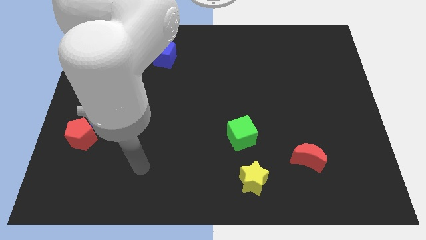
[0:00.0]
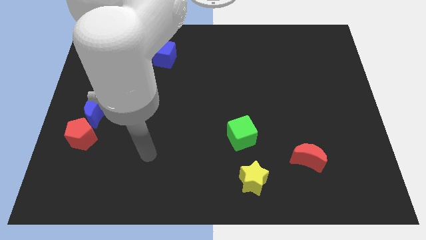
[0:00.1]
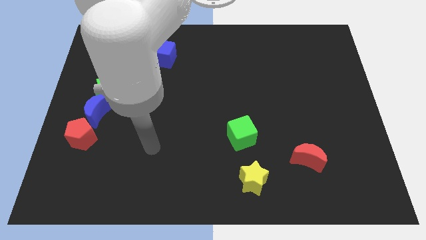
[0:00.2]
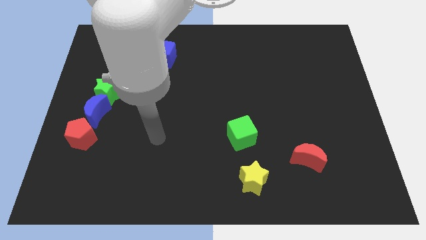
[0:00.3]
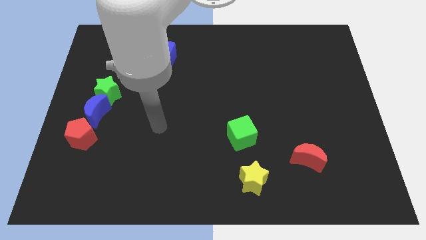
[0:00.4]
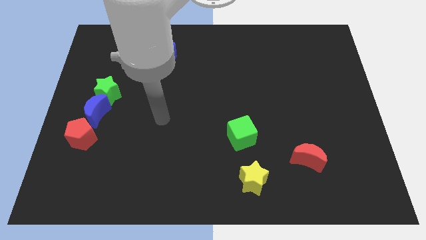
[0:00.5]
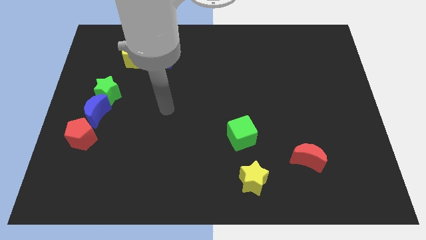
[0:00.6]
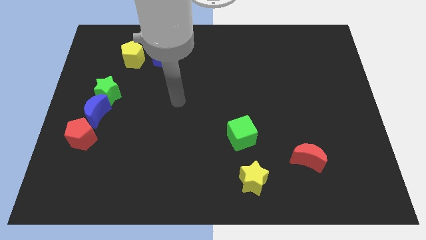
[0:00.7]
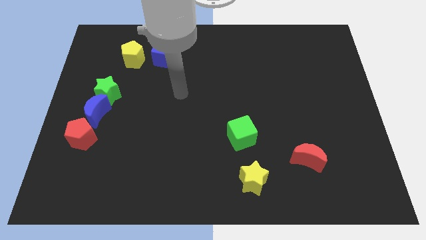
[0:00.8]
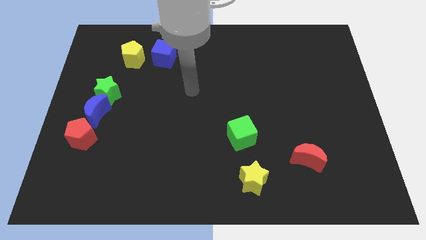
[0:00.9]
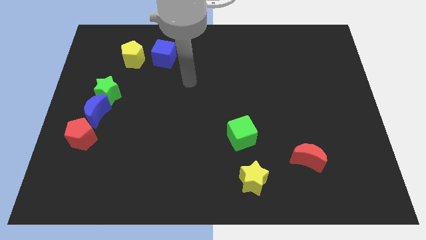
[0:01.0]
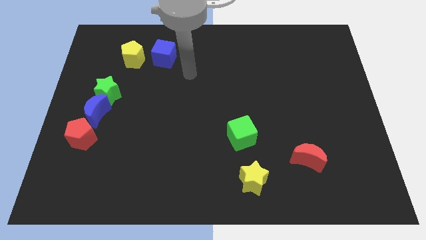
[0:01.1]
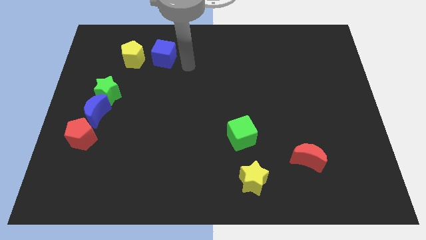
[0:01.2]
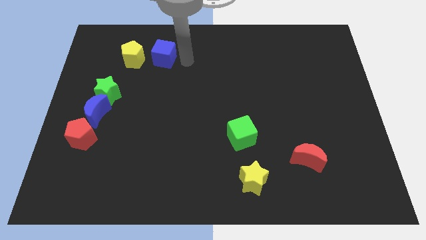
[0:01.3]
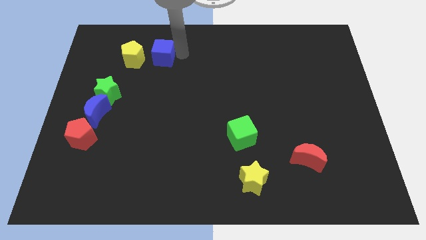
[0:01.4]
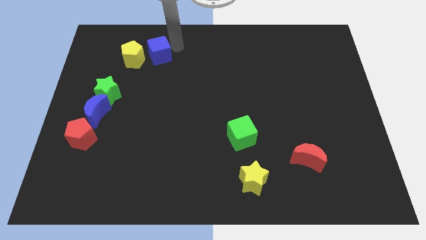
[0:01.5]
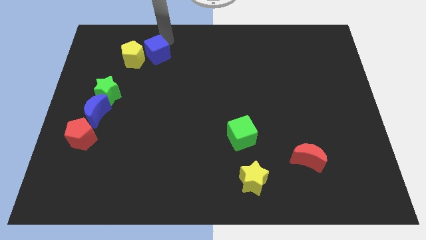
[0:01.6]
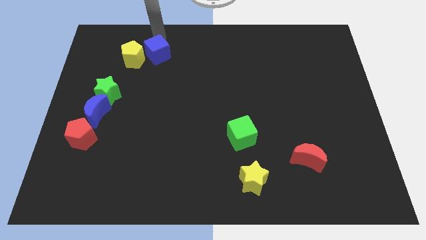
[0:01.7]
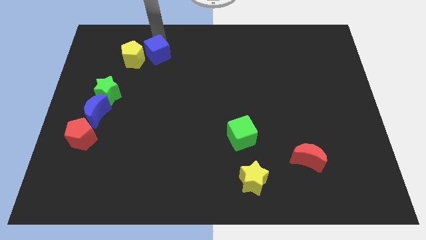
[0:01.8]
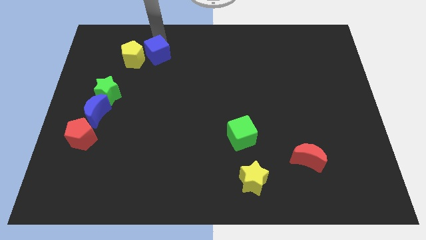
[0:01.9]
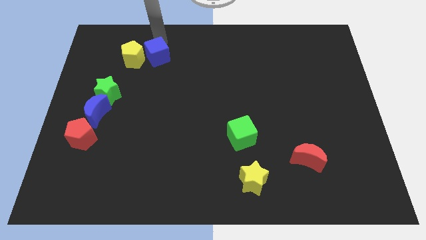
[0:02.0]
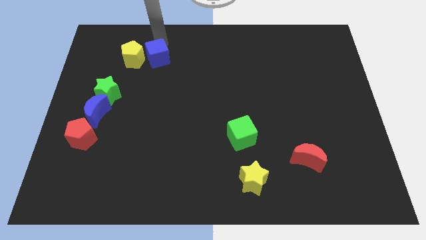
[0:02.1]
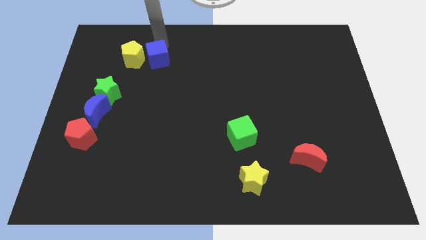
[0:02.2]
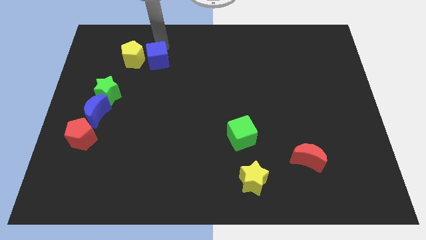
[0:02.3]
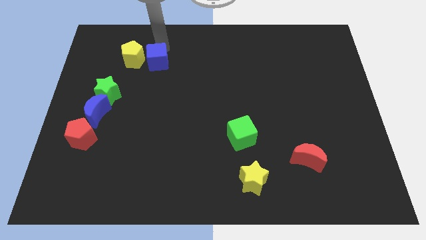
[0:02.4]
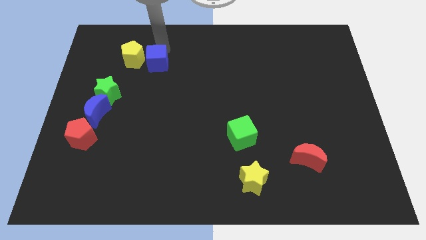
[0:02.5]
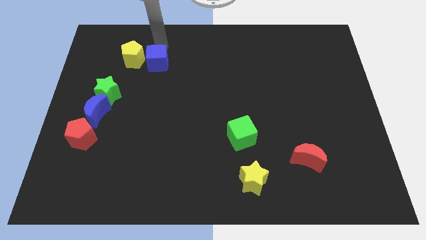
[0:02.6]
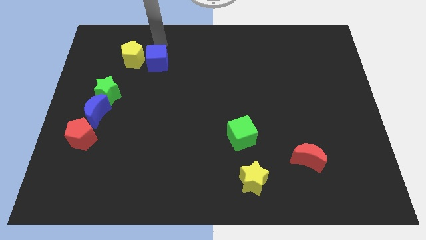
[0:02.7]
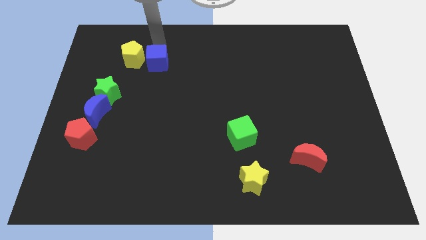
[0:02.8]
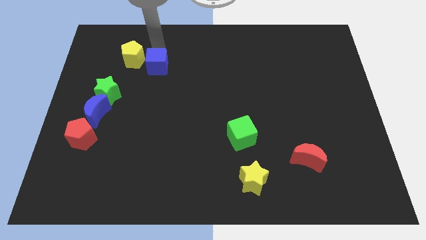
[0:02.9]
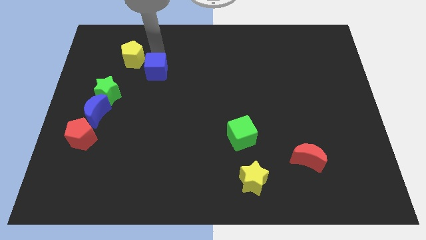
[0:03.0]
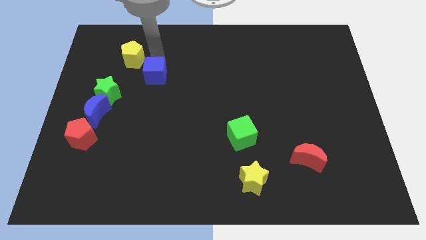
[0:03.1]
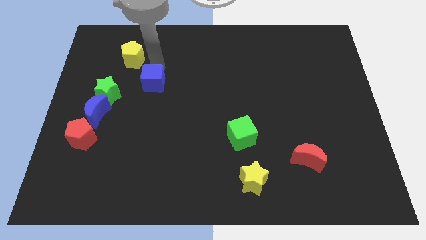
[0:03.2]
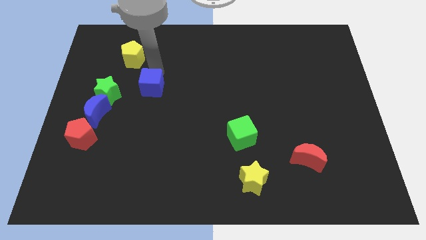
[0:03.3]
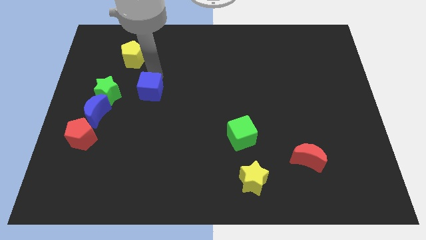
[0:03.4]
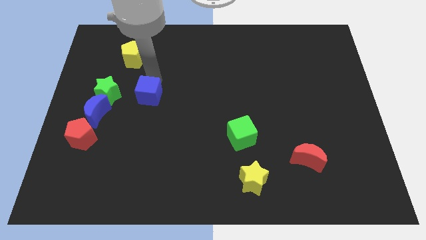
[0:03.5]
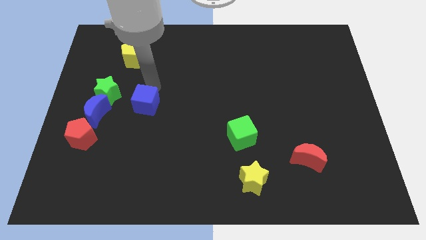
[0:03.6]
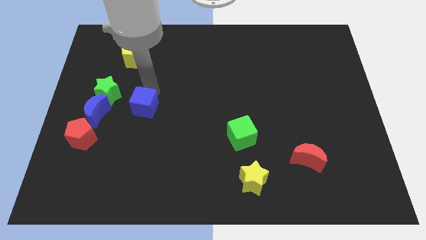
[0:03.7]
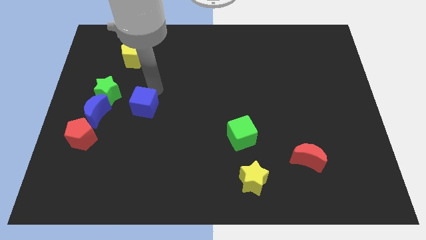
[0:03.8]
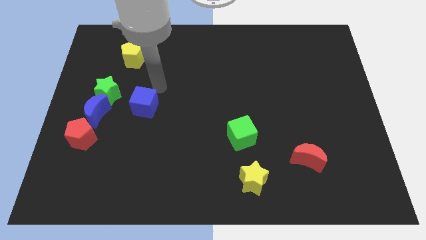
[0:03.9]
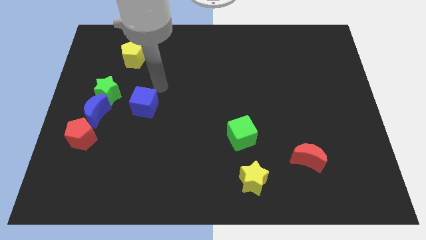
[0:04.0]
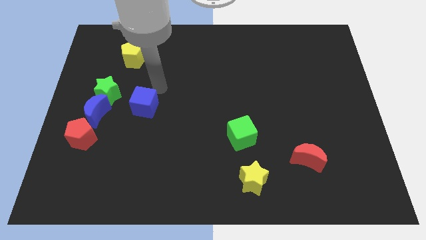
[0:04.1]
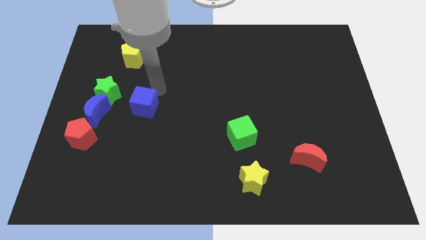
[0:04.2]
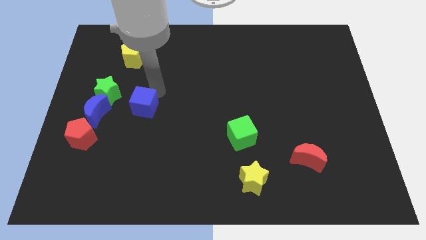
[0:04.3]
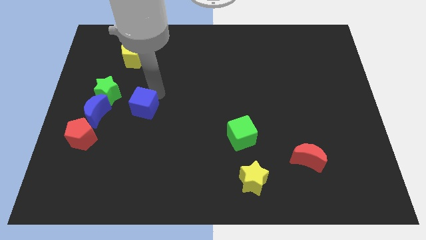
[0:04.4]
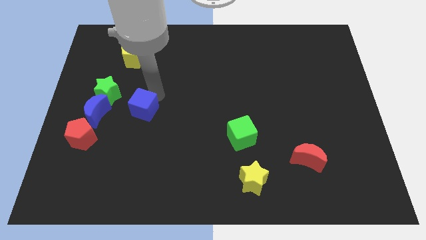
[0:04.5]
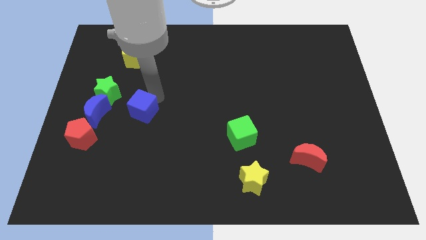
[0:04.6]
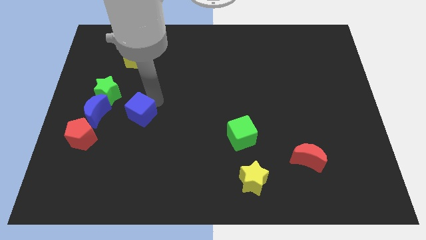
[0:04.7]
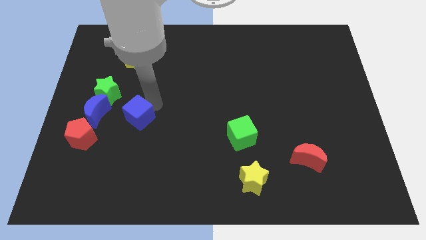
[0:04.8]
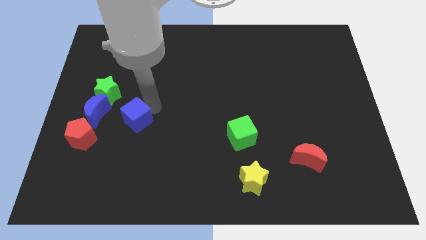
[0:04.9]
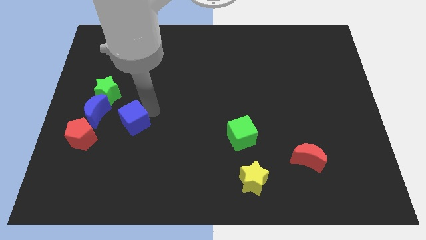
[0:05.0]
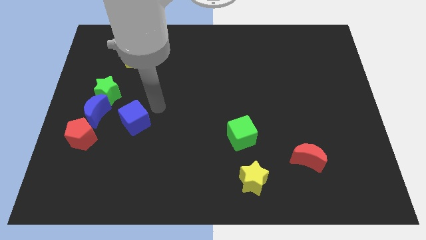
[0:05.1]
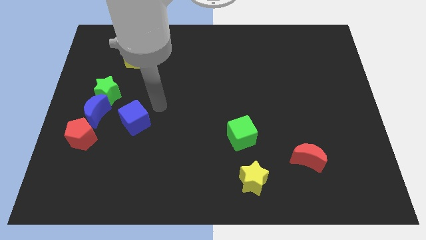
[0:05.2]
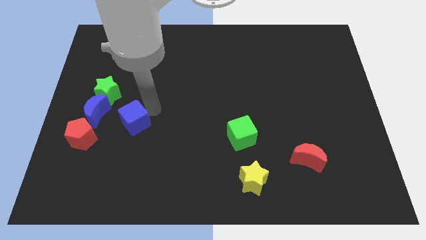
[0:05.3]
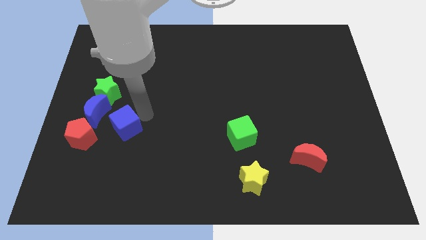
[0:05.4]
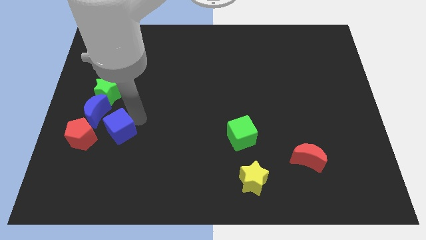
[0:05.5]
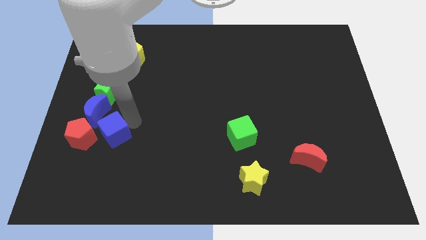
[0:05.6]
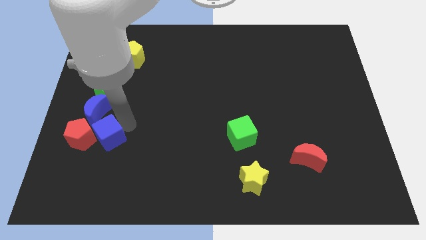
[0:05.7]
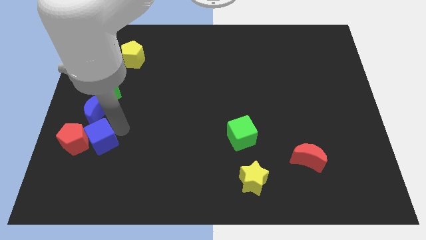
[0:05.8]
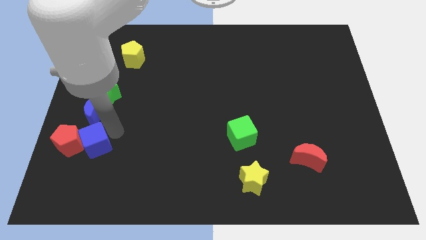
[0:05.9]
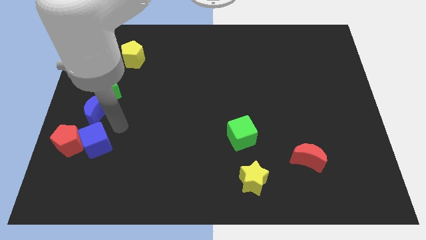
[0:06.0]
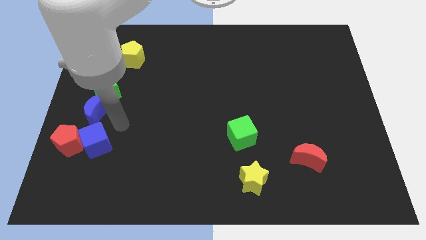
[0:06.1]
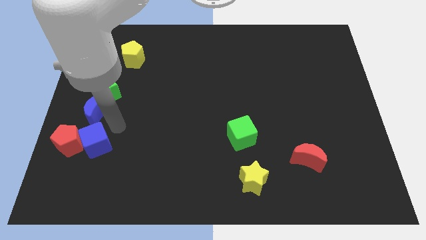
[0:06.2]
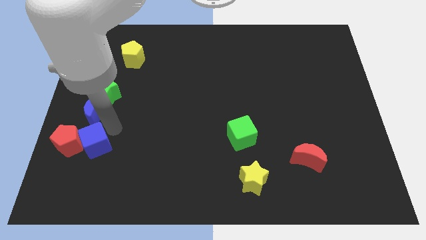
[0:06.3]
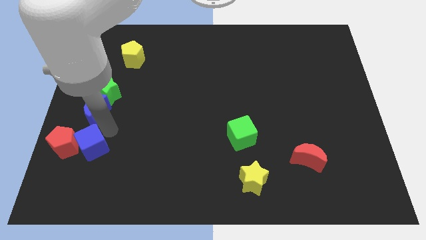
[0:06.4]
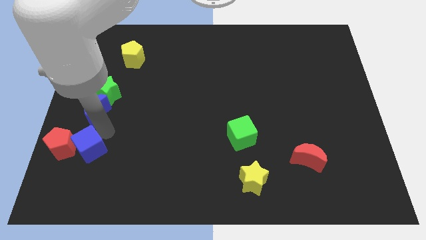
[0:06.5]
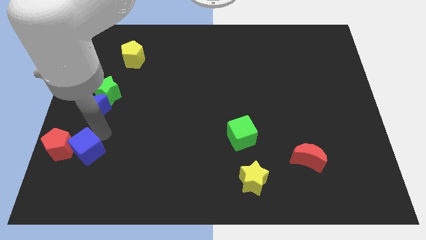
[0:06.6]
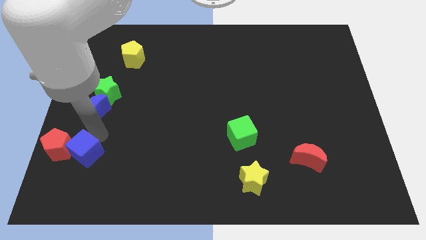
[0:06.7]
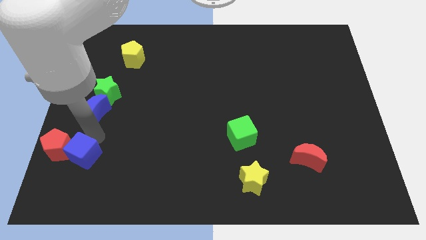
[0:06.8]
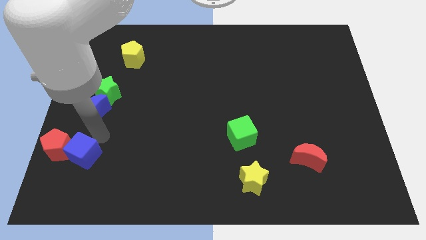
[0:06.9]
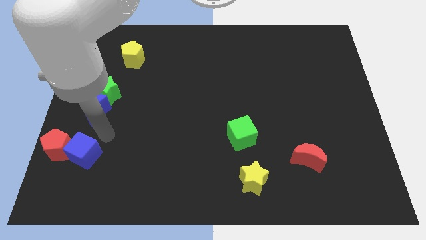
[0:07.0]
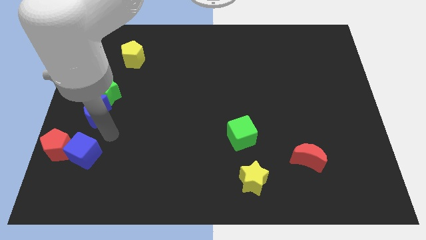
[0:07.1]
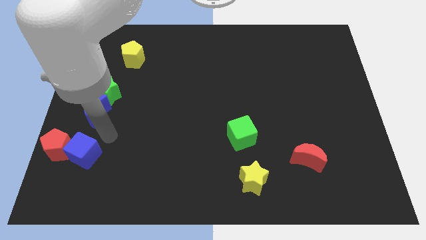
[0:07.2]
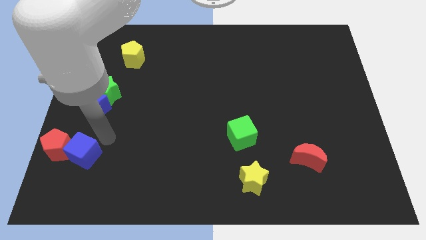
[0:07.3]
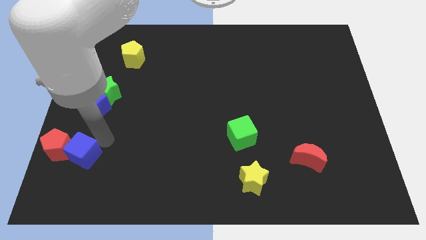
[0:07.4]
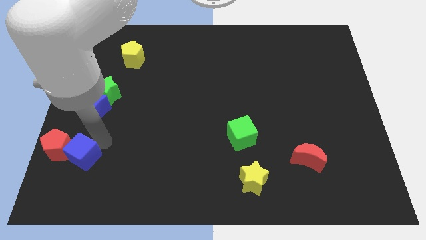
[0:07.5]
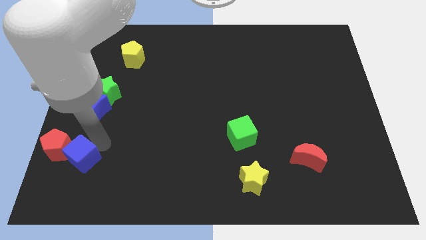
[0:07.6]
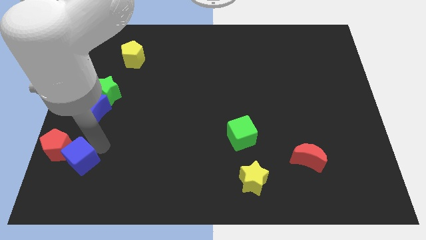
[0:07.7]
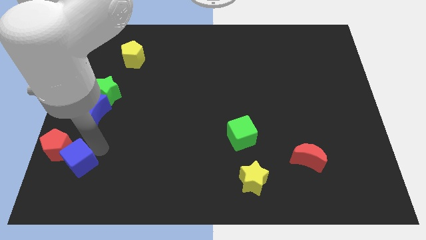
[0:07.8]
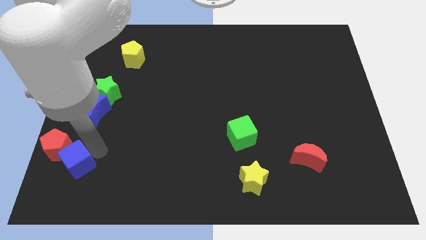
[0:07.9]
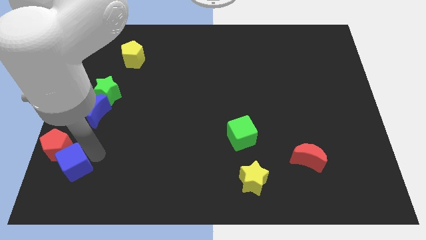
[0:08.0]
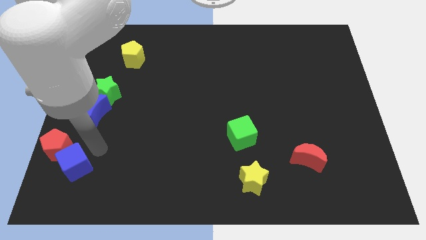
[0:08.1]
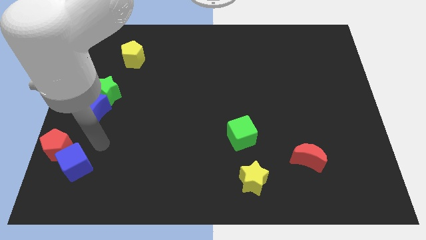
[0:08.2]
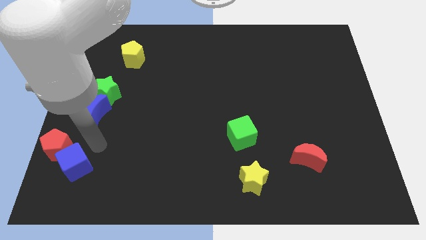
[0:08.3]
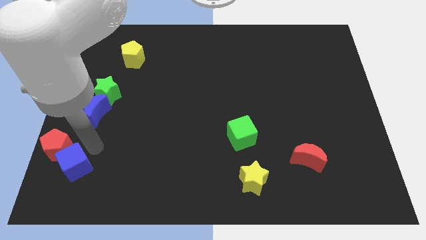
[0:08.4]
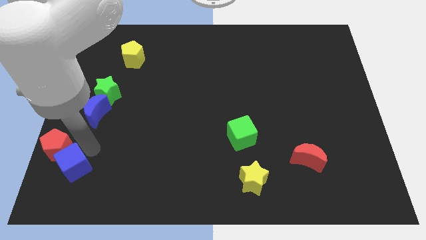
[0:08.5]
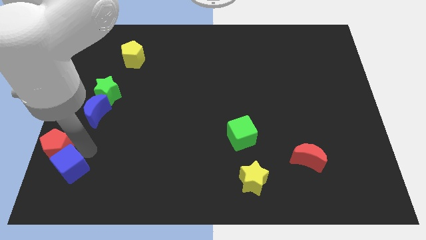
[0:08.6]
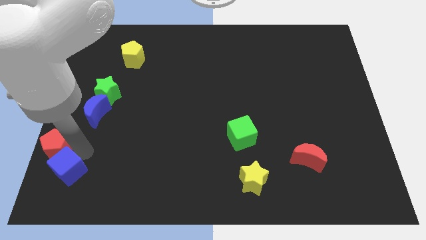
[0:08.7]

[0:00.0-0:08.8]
slide the blue cube to the bottom left corner
